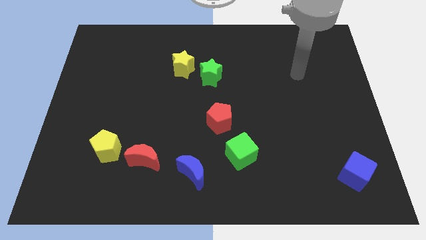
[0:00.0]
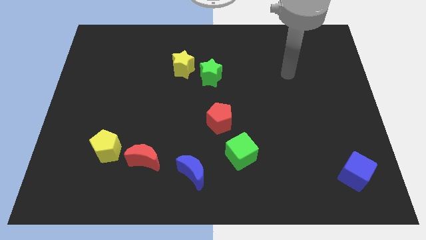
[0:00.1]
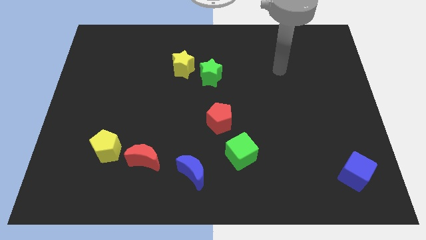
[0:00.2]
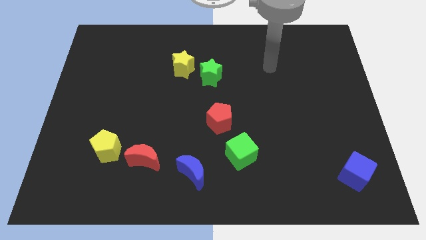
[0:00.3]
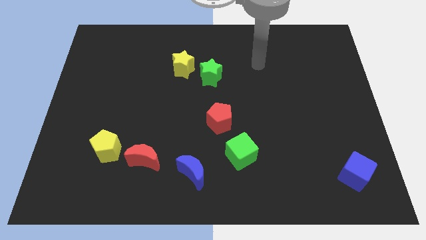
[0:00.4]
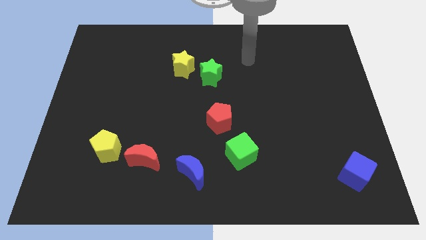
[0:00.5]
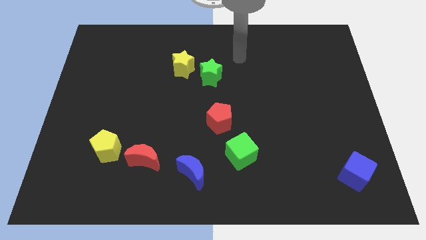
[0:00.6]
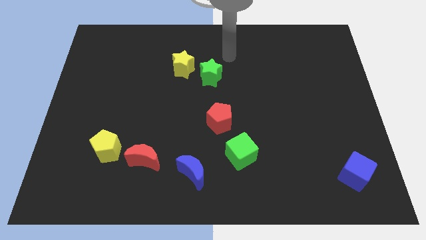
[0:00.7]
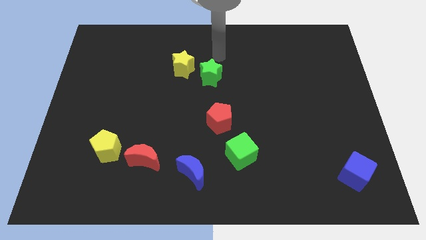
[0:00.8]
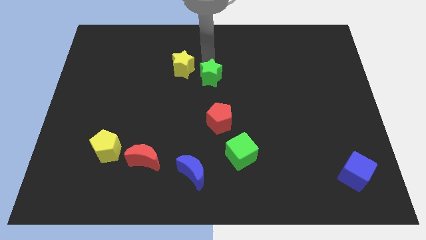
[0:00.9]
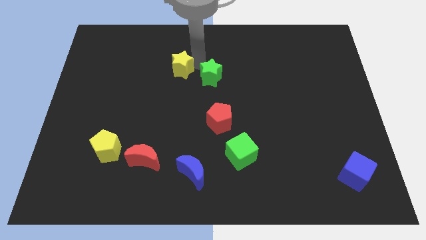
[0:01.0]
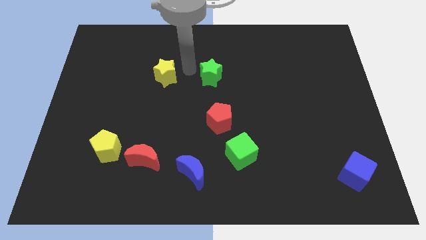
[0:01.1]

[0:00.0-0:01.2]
separate the green star from the yellow star

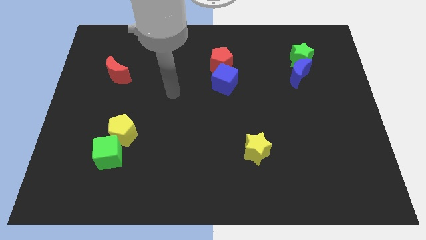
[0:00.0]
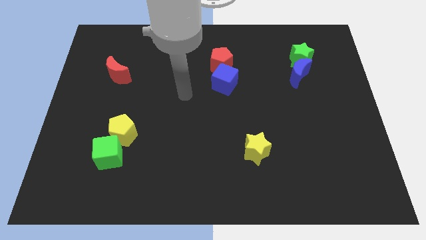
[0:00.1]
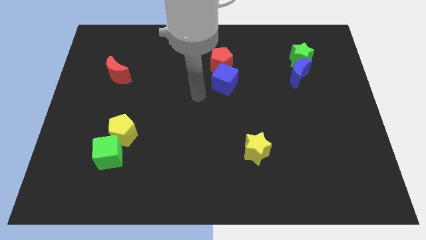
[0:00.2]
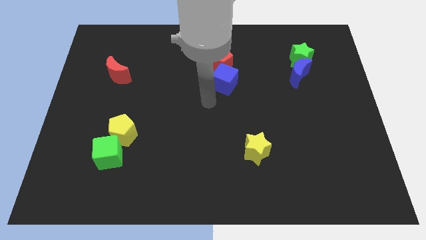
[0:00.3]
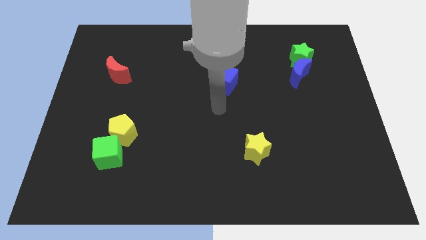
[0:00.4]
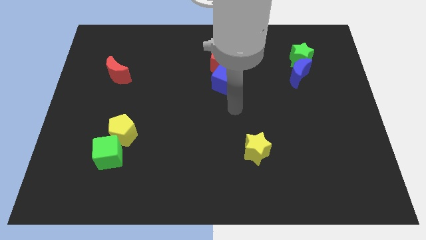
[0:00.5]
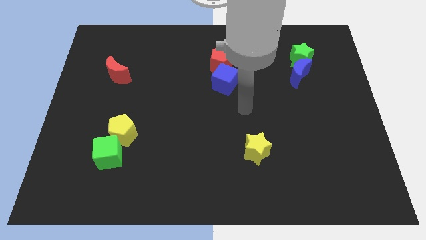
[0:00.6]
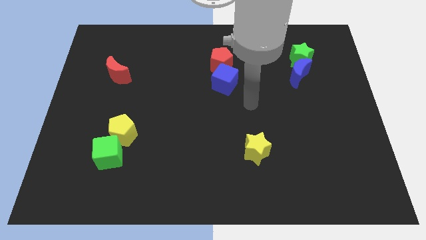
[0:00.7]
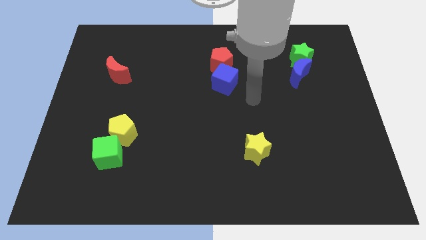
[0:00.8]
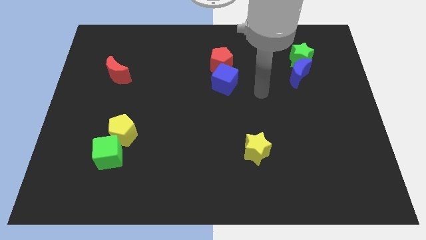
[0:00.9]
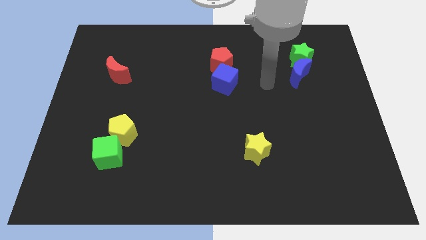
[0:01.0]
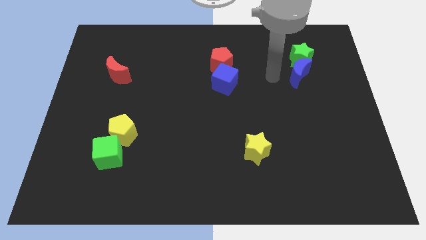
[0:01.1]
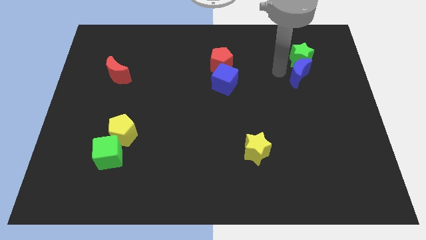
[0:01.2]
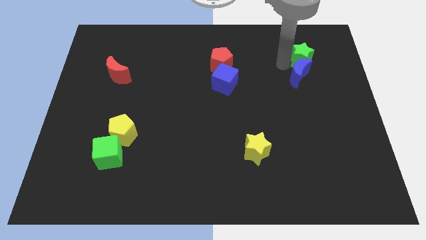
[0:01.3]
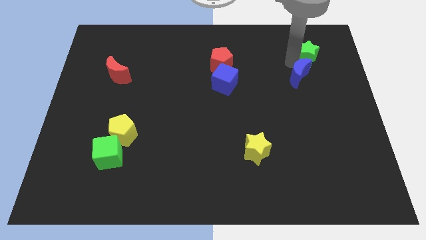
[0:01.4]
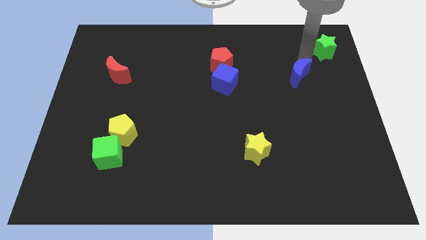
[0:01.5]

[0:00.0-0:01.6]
pull the blue moon apart from the green star

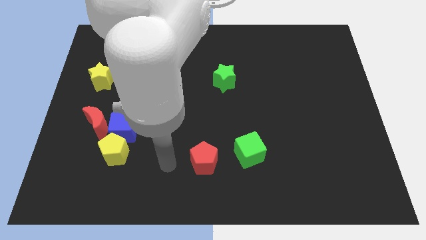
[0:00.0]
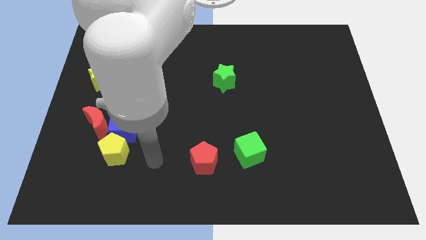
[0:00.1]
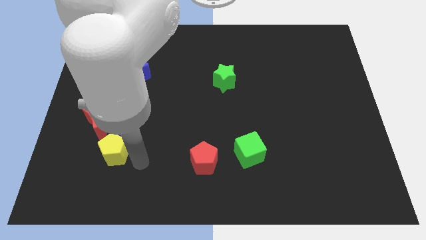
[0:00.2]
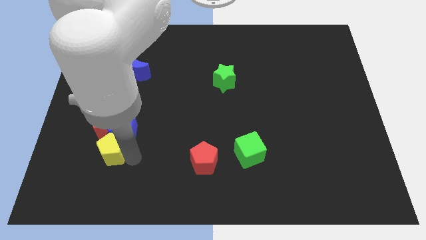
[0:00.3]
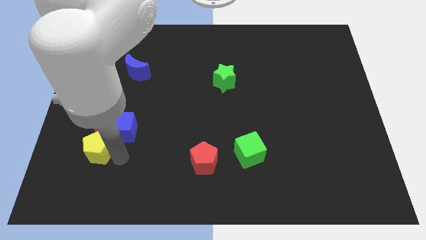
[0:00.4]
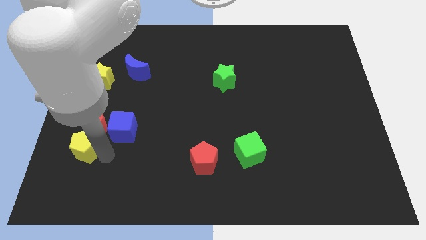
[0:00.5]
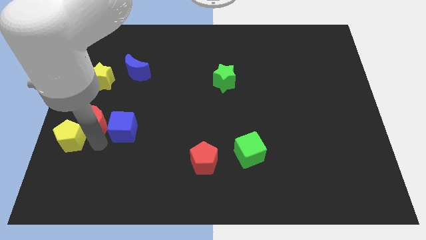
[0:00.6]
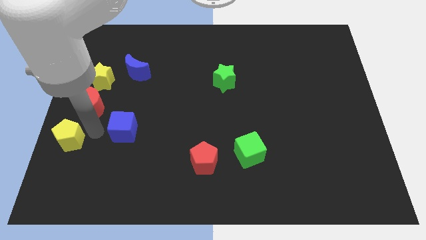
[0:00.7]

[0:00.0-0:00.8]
pull the blue cube apart from the yellow pentagon and red moon

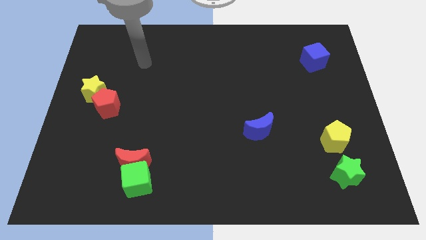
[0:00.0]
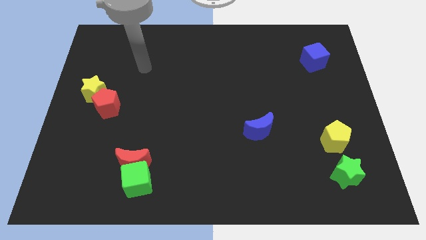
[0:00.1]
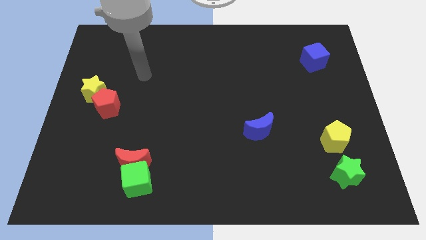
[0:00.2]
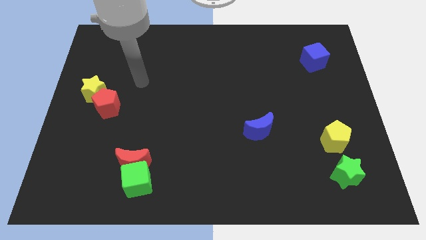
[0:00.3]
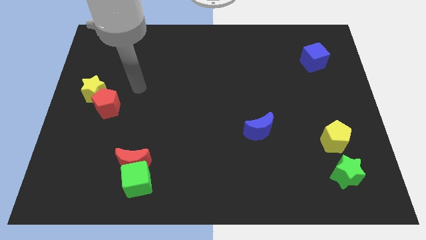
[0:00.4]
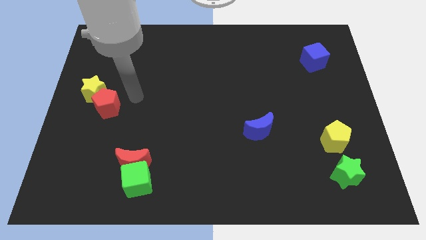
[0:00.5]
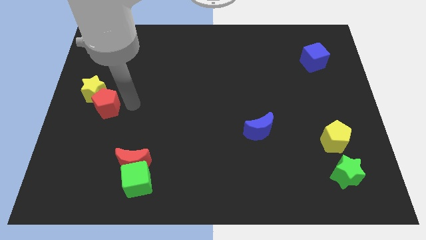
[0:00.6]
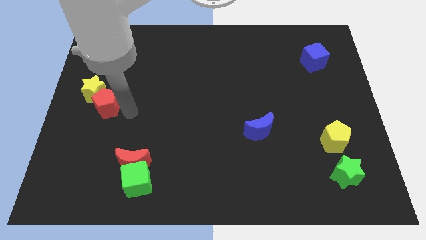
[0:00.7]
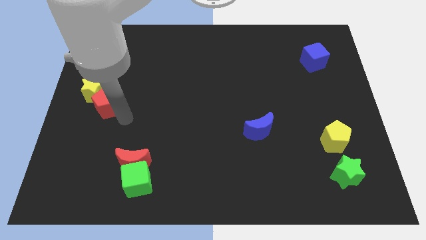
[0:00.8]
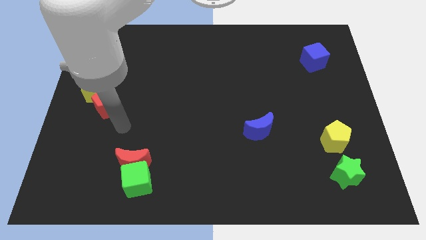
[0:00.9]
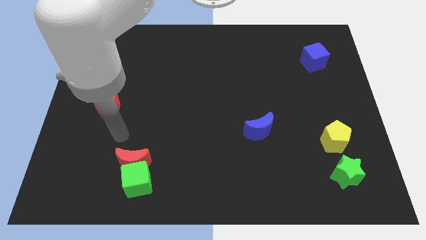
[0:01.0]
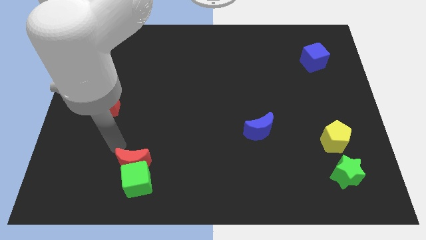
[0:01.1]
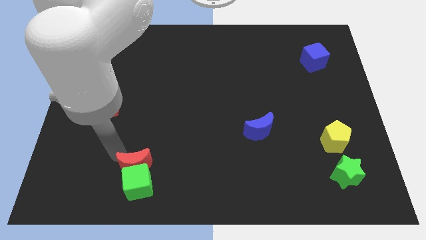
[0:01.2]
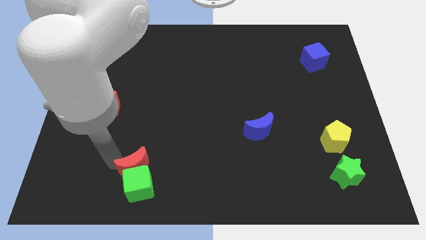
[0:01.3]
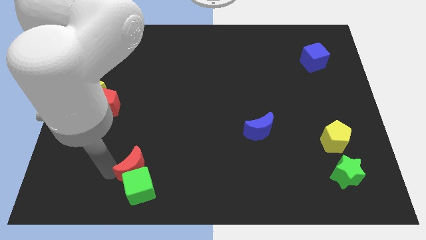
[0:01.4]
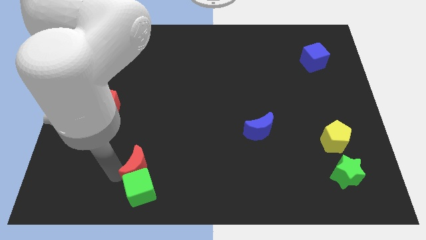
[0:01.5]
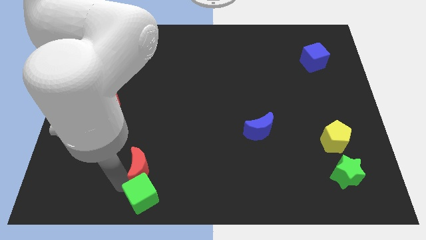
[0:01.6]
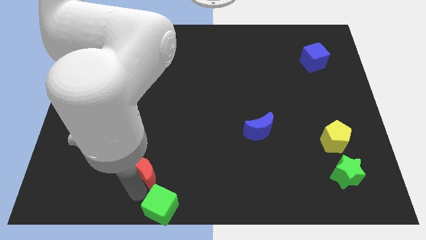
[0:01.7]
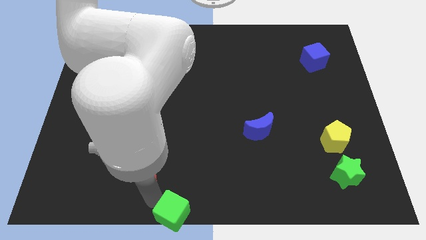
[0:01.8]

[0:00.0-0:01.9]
move the red moon away from the green cube

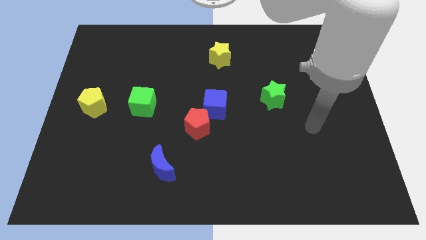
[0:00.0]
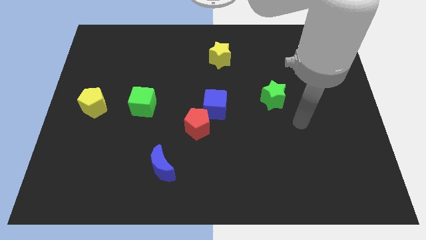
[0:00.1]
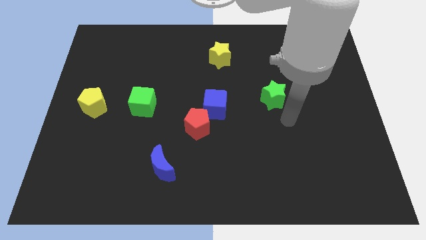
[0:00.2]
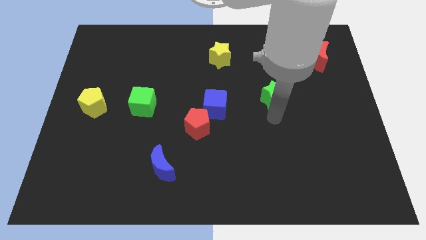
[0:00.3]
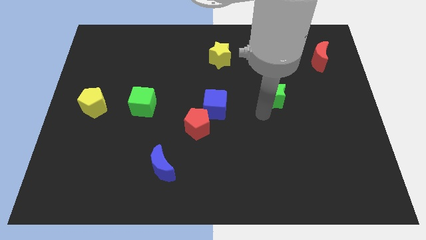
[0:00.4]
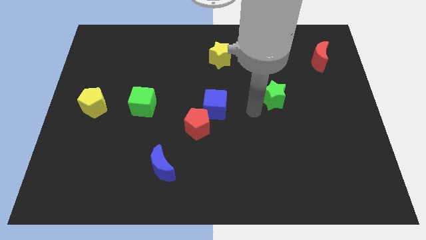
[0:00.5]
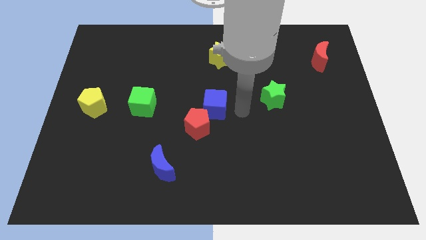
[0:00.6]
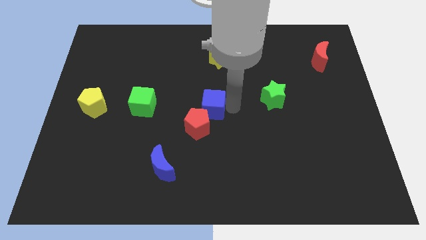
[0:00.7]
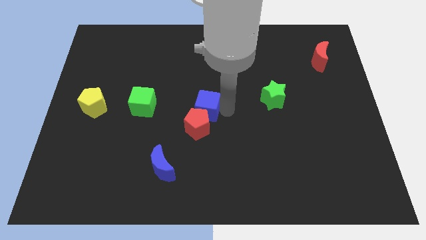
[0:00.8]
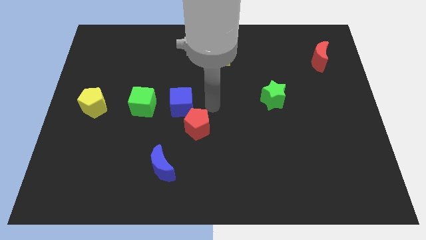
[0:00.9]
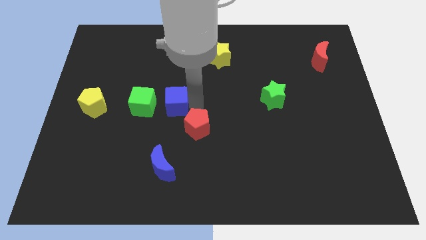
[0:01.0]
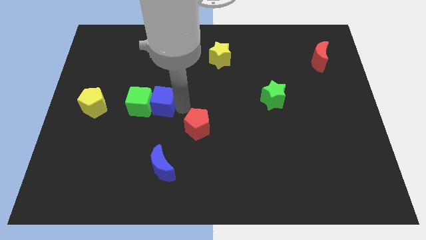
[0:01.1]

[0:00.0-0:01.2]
move the red pentagon away from the blue cube

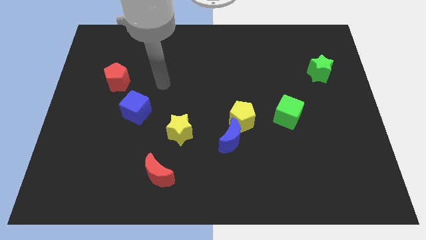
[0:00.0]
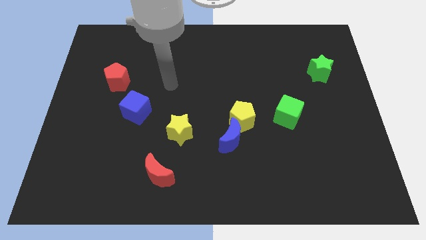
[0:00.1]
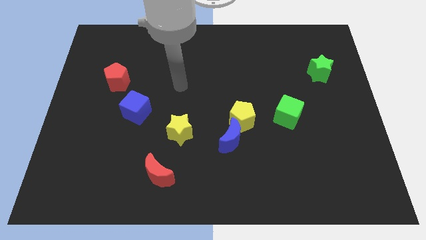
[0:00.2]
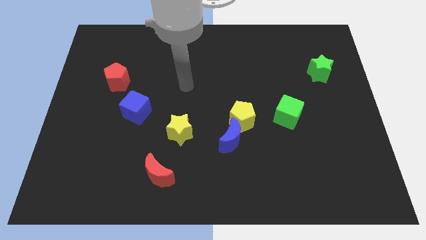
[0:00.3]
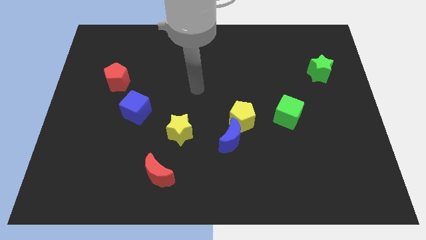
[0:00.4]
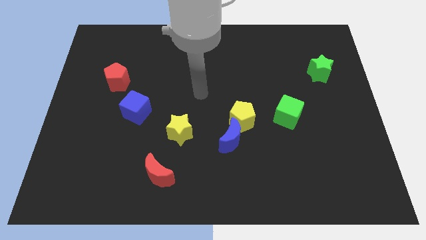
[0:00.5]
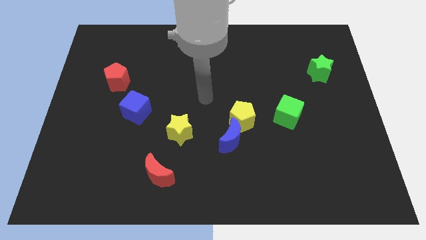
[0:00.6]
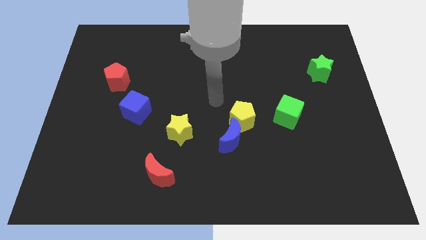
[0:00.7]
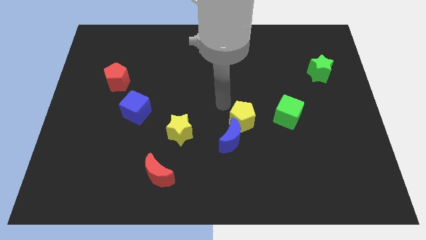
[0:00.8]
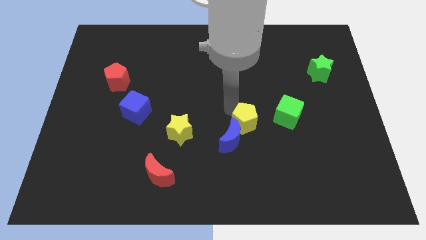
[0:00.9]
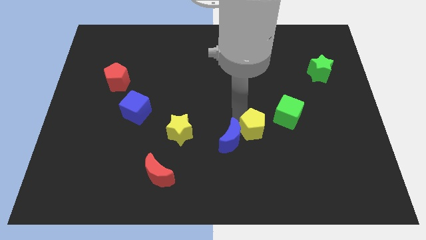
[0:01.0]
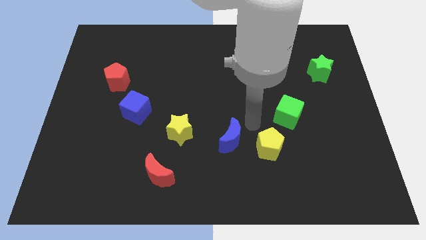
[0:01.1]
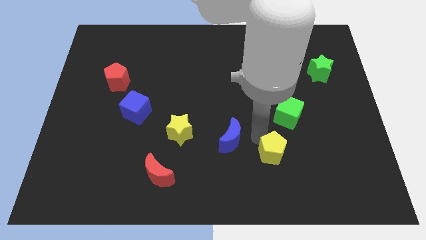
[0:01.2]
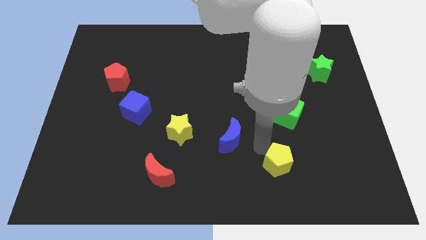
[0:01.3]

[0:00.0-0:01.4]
pull the blue moon apart from the yellow pentagon

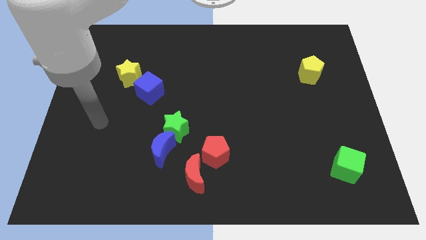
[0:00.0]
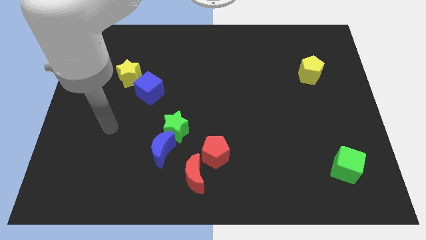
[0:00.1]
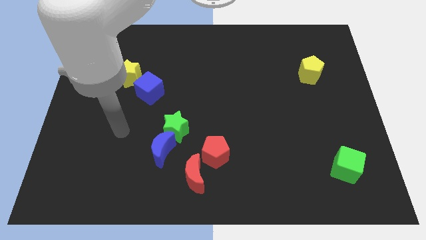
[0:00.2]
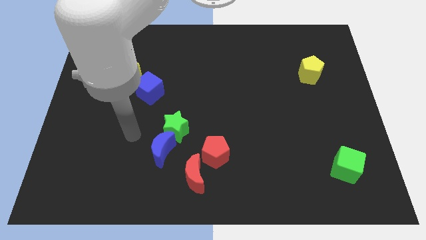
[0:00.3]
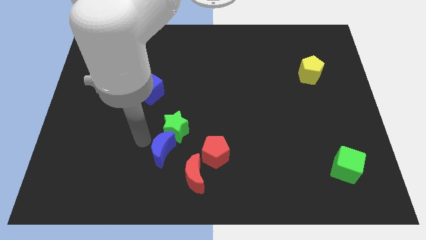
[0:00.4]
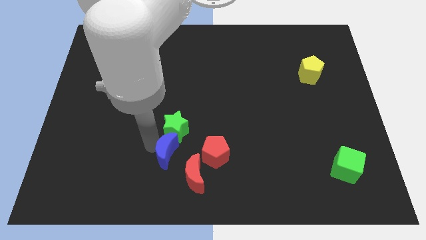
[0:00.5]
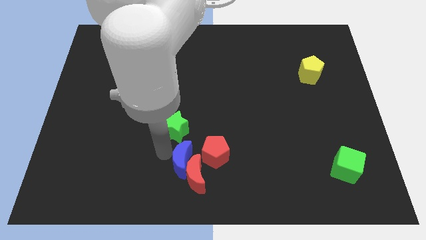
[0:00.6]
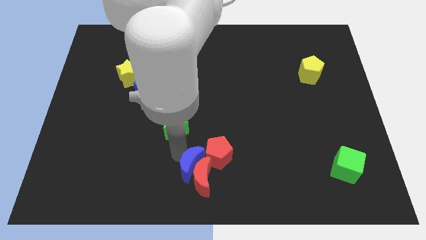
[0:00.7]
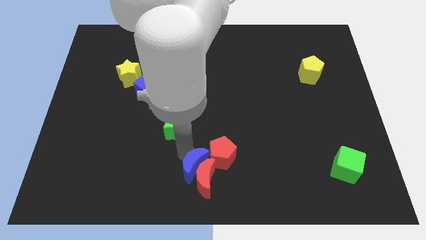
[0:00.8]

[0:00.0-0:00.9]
pull the green star apart from the blue moon

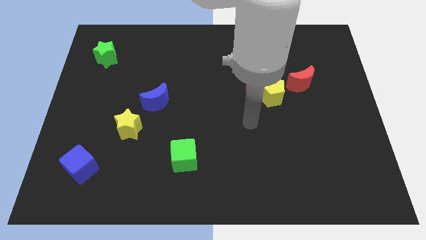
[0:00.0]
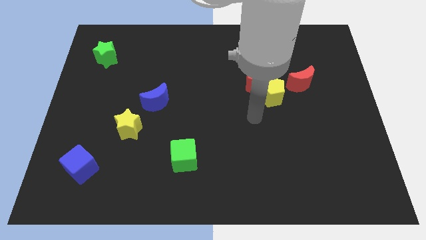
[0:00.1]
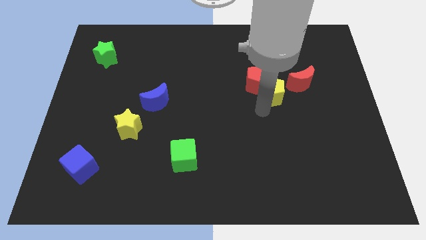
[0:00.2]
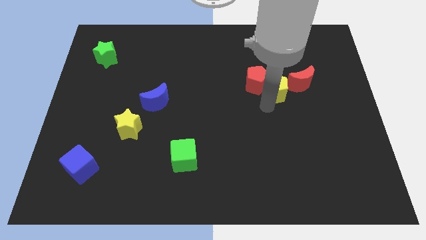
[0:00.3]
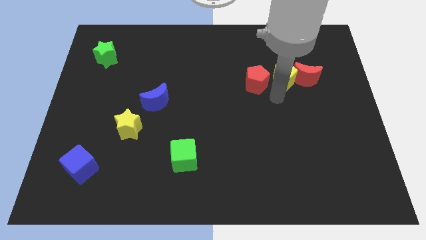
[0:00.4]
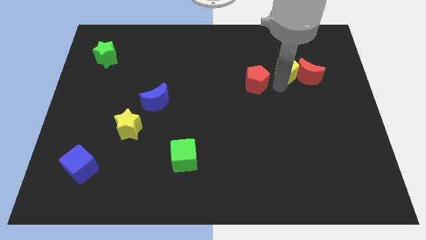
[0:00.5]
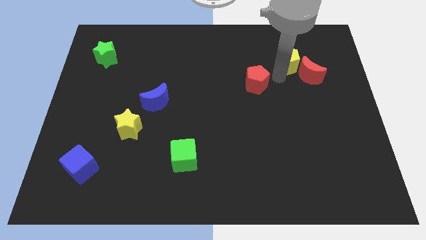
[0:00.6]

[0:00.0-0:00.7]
move the red pentagon away from the yellow pentagon
